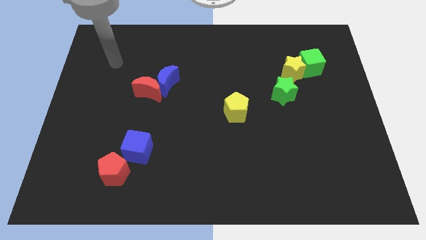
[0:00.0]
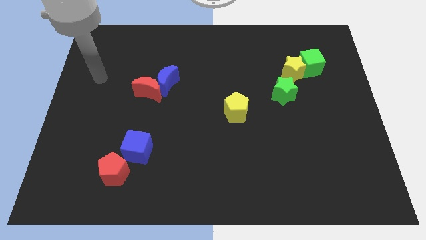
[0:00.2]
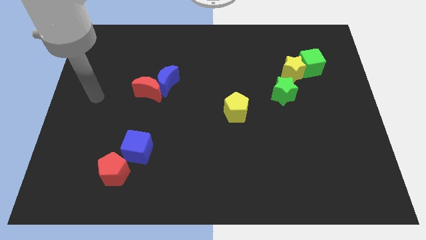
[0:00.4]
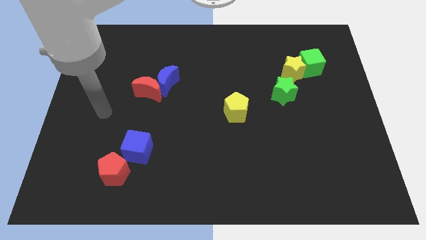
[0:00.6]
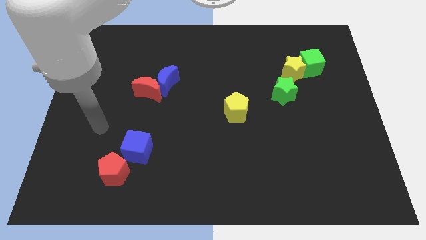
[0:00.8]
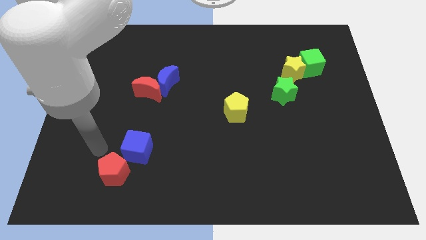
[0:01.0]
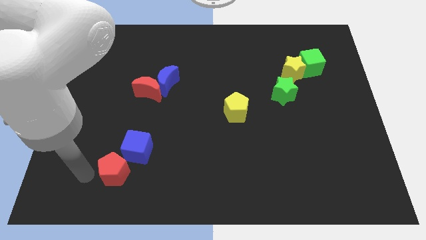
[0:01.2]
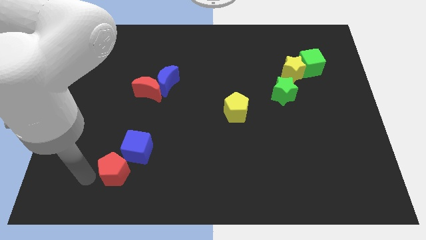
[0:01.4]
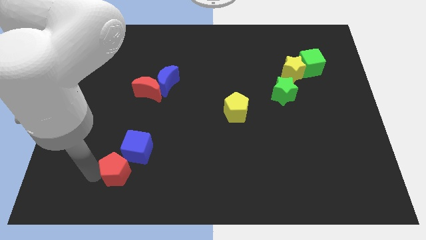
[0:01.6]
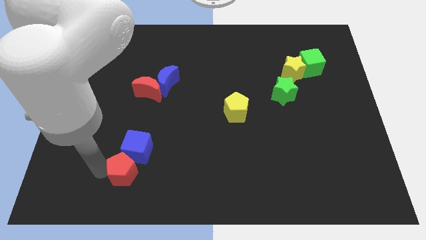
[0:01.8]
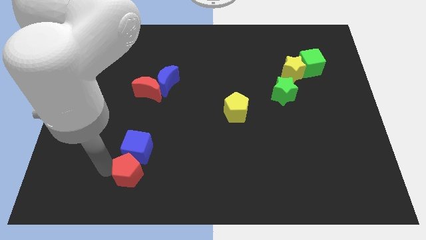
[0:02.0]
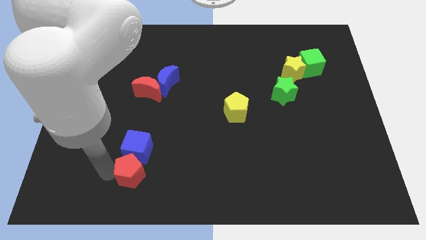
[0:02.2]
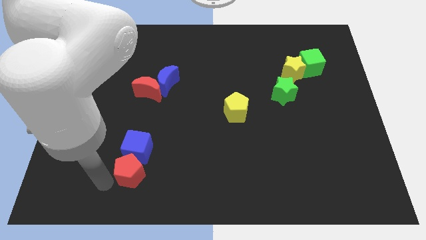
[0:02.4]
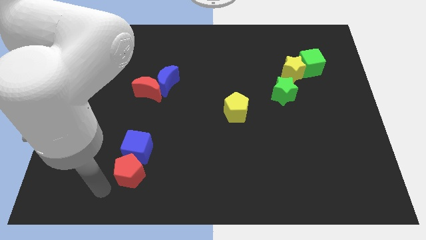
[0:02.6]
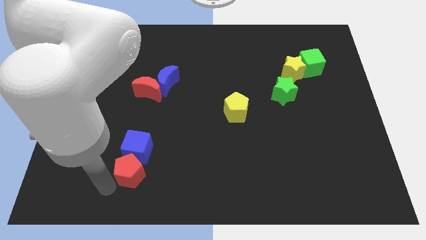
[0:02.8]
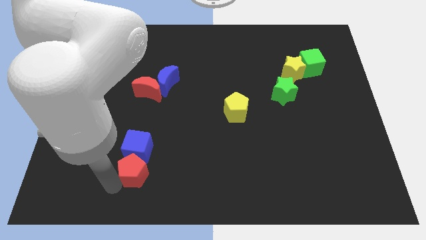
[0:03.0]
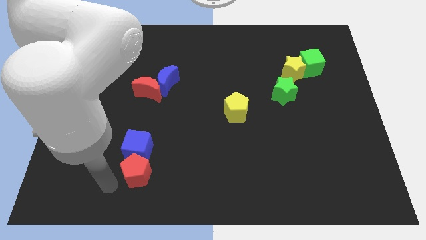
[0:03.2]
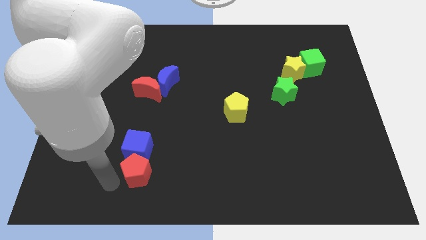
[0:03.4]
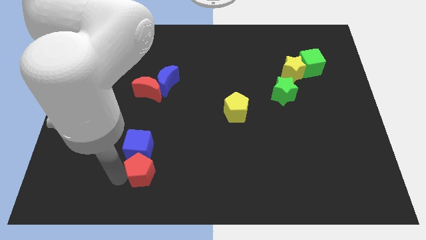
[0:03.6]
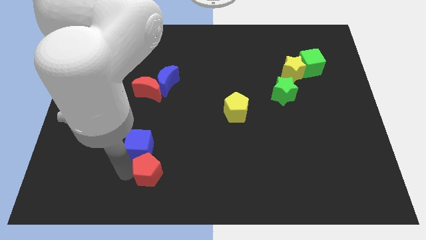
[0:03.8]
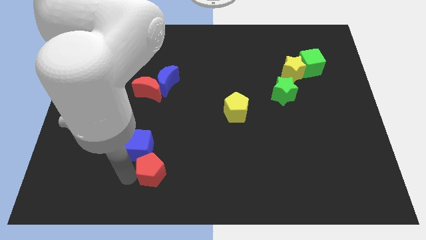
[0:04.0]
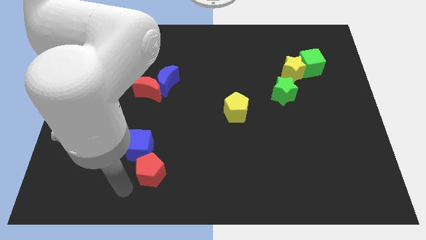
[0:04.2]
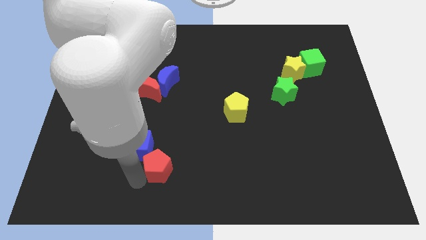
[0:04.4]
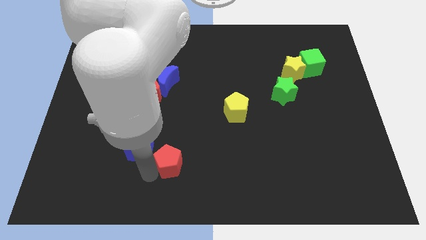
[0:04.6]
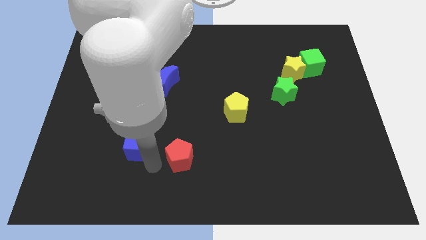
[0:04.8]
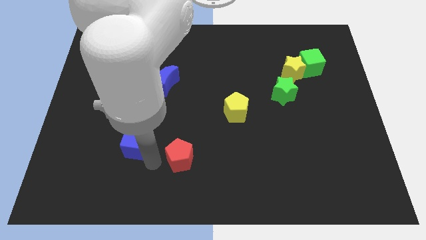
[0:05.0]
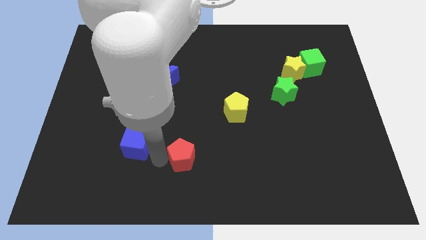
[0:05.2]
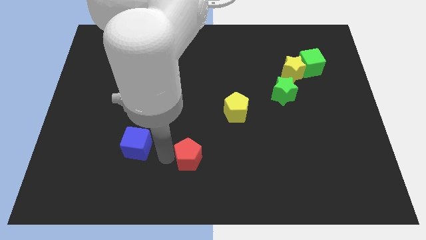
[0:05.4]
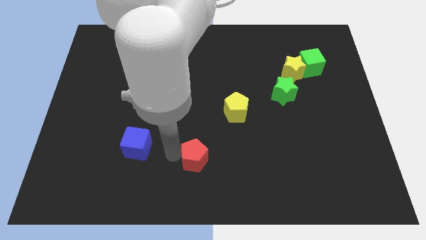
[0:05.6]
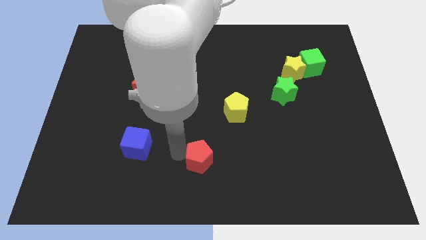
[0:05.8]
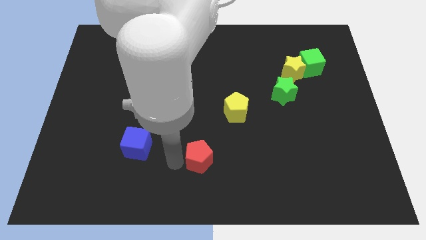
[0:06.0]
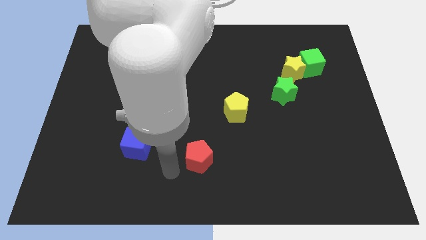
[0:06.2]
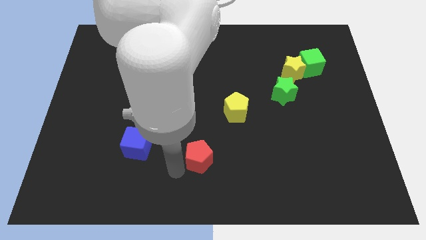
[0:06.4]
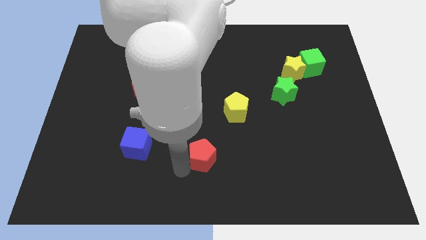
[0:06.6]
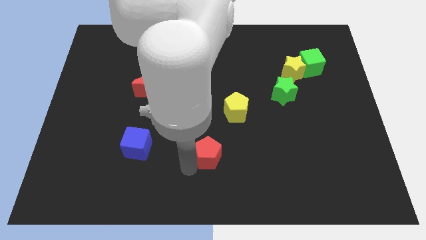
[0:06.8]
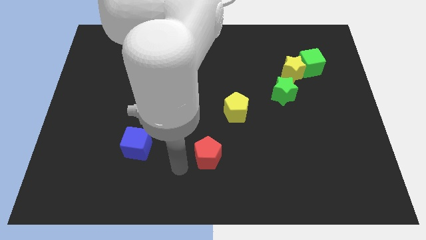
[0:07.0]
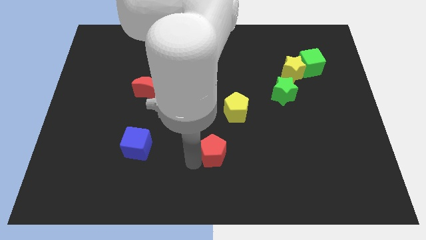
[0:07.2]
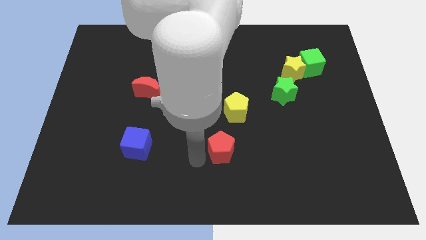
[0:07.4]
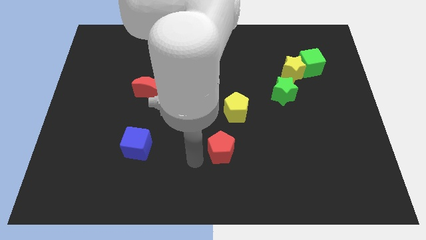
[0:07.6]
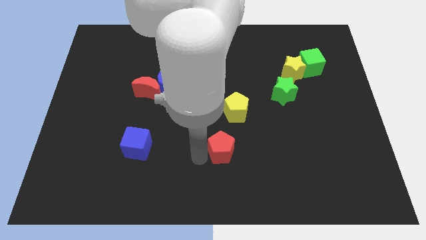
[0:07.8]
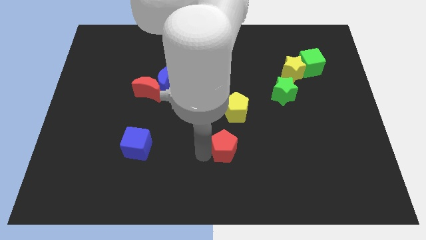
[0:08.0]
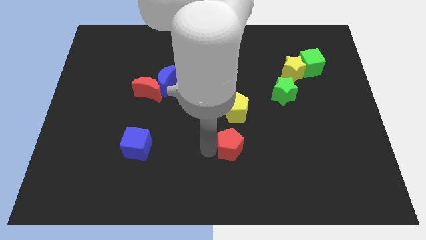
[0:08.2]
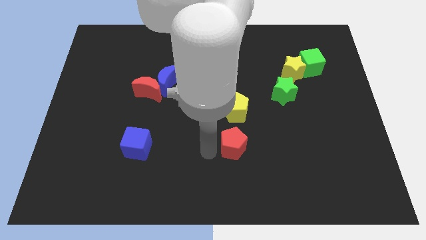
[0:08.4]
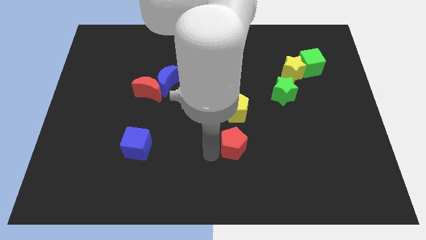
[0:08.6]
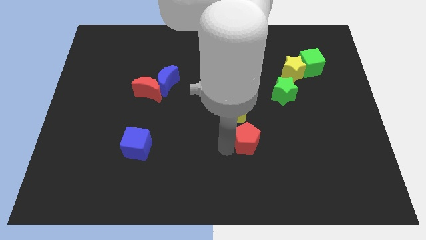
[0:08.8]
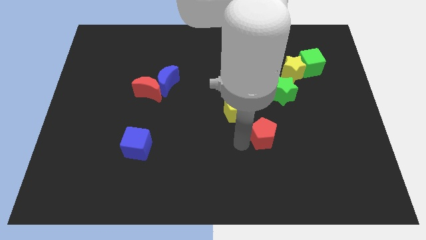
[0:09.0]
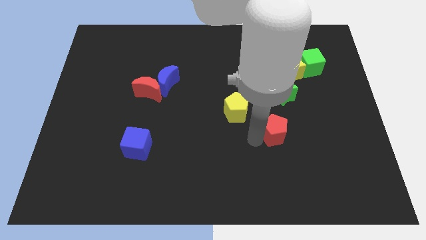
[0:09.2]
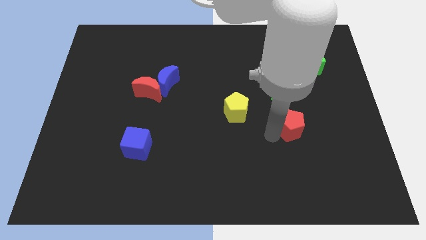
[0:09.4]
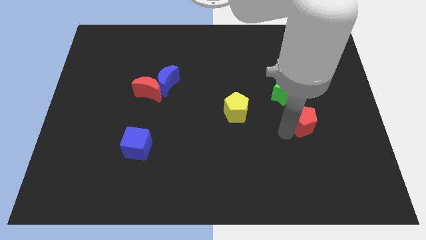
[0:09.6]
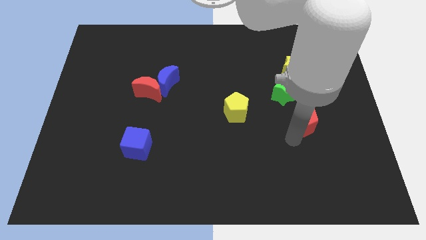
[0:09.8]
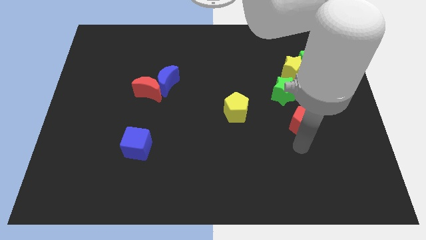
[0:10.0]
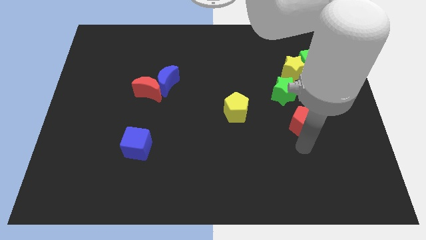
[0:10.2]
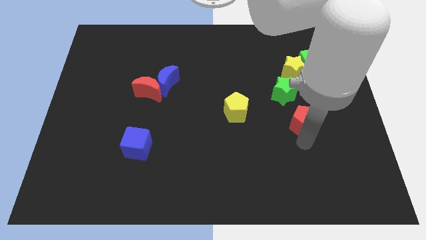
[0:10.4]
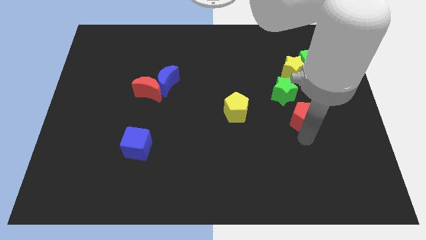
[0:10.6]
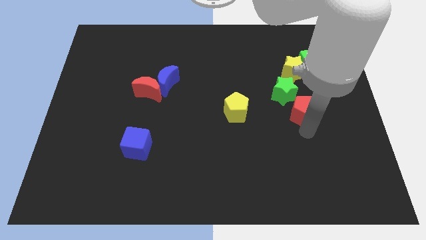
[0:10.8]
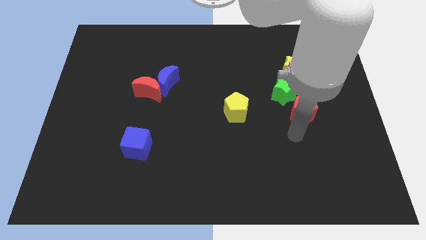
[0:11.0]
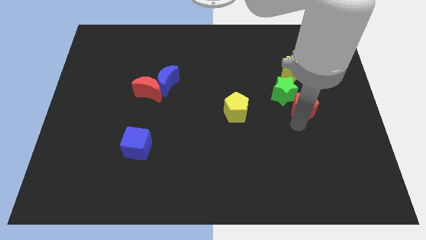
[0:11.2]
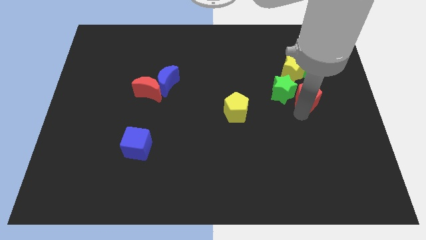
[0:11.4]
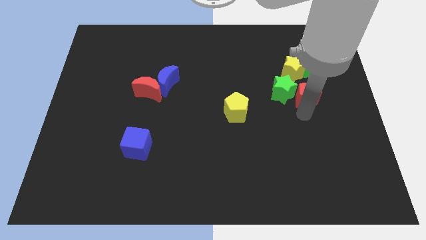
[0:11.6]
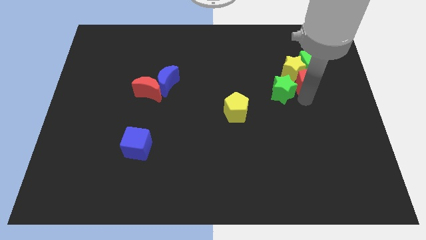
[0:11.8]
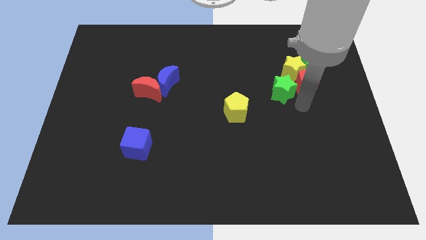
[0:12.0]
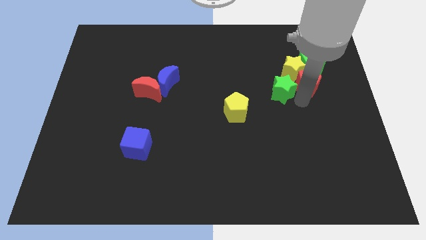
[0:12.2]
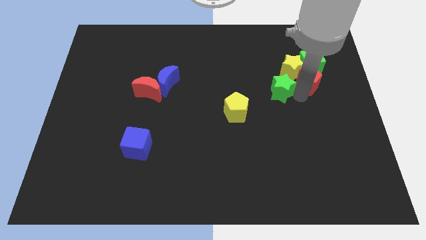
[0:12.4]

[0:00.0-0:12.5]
push the red pentagon next to the green cube
